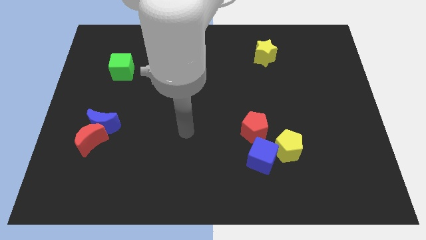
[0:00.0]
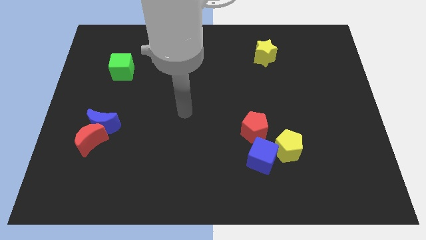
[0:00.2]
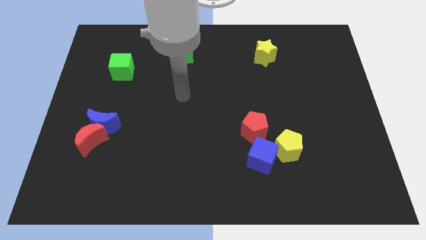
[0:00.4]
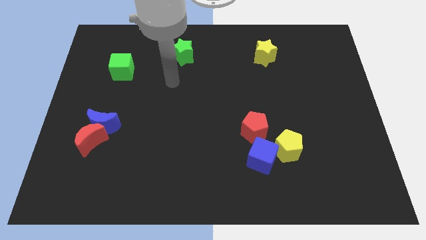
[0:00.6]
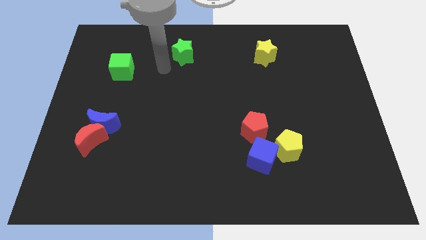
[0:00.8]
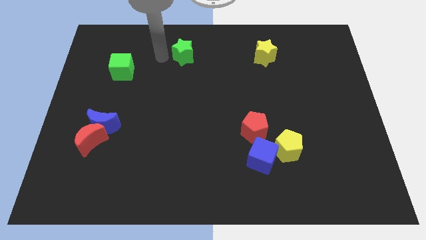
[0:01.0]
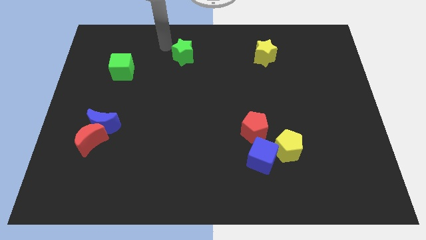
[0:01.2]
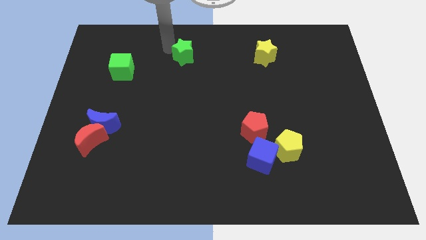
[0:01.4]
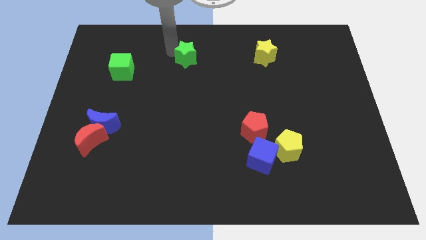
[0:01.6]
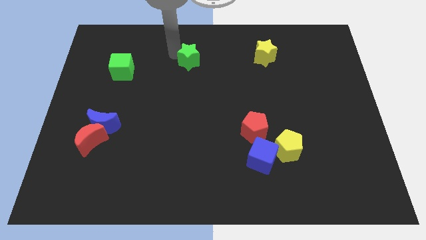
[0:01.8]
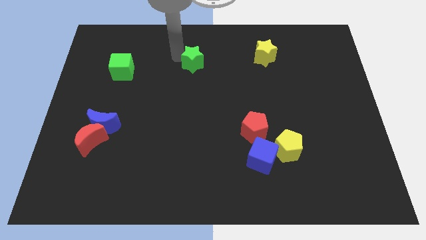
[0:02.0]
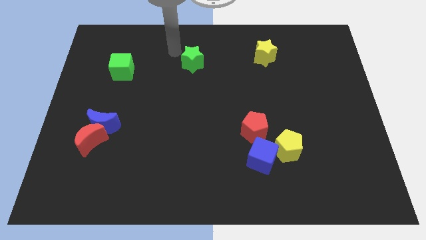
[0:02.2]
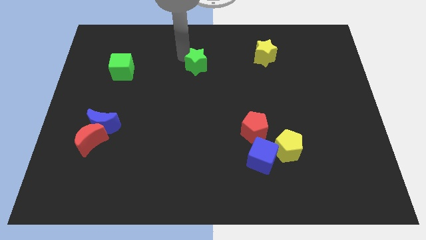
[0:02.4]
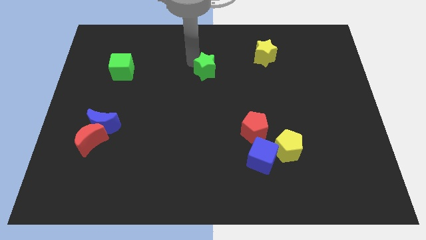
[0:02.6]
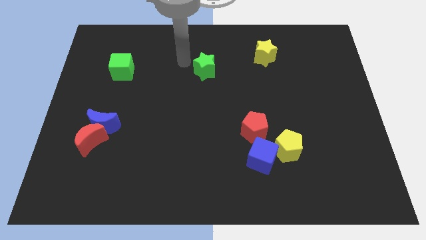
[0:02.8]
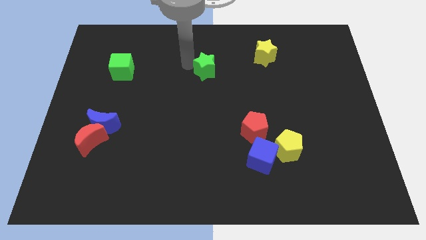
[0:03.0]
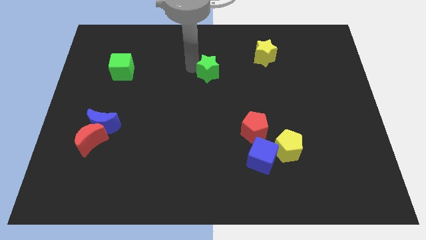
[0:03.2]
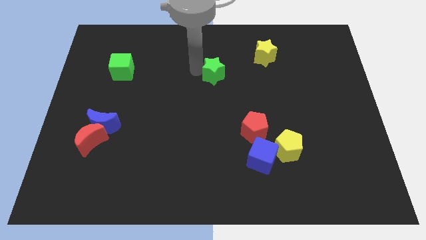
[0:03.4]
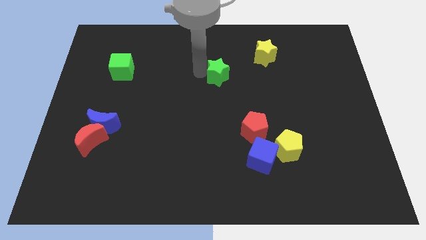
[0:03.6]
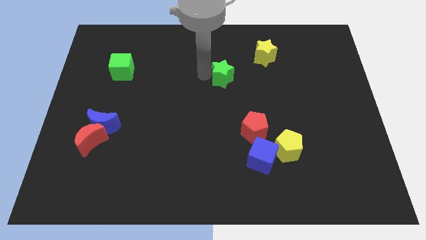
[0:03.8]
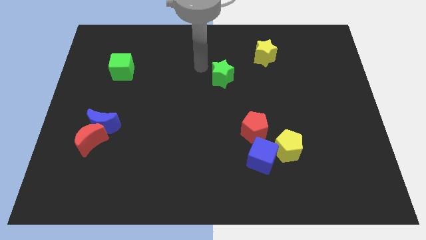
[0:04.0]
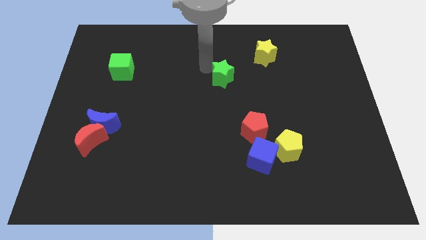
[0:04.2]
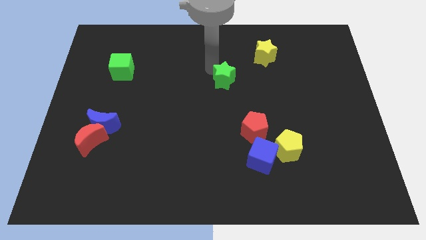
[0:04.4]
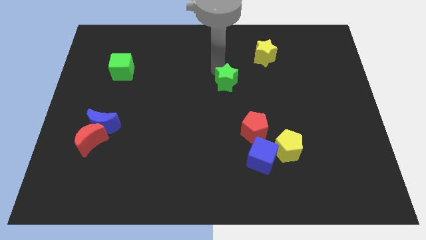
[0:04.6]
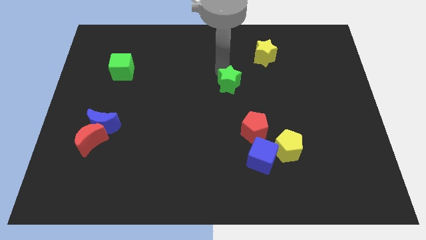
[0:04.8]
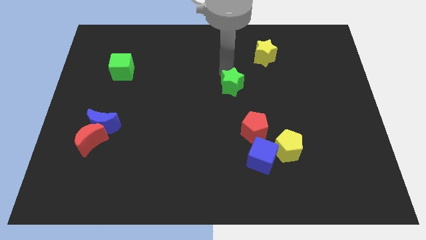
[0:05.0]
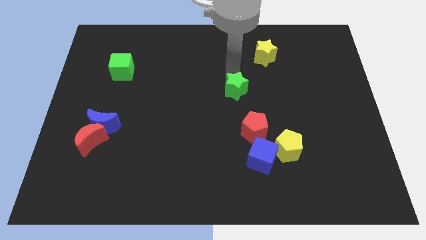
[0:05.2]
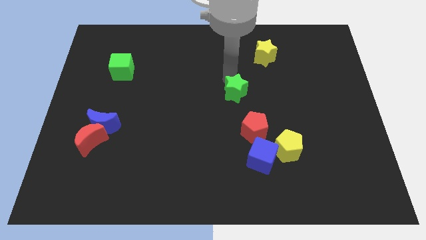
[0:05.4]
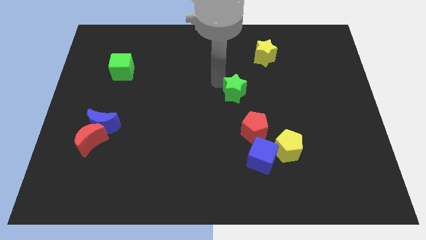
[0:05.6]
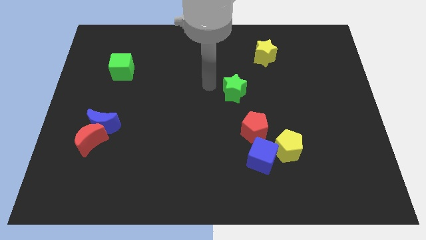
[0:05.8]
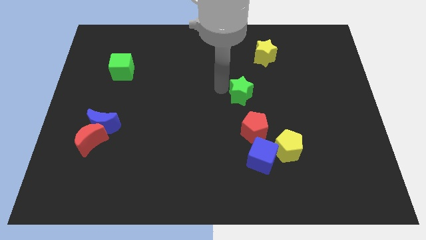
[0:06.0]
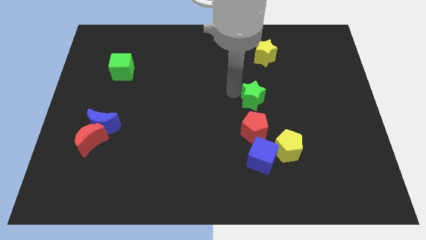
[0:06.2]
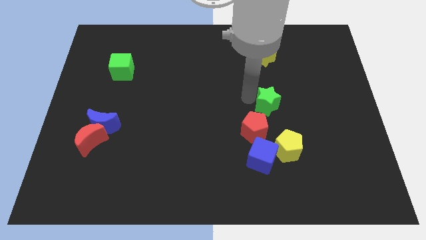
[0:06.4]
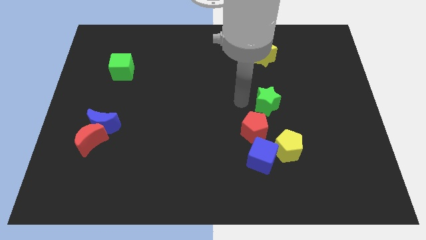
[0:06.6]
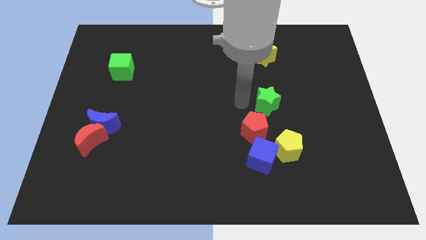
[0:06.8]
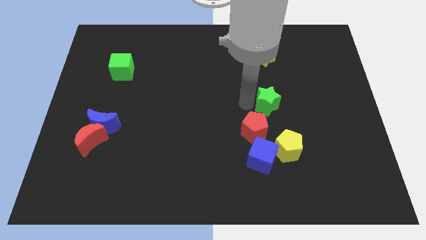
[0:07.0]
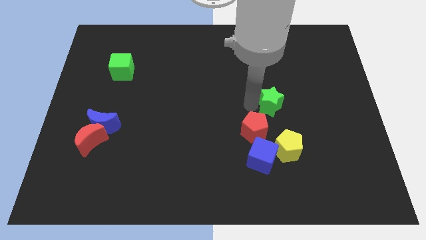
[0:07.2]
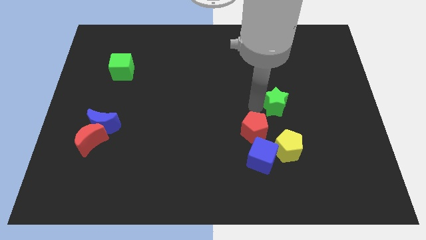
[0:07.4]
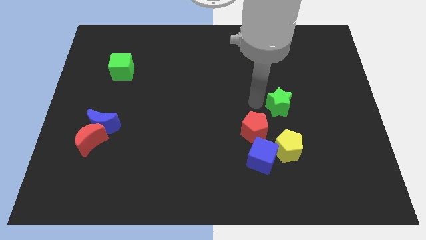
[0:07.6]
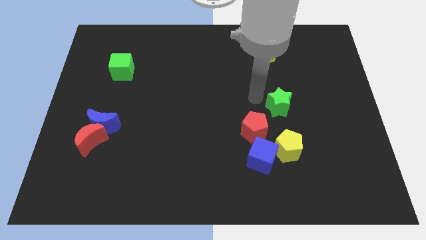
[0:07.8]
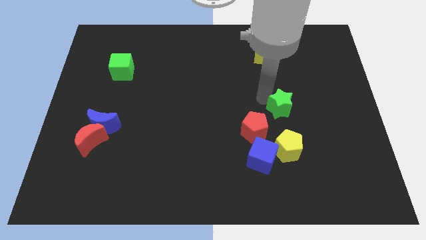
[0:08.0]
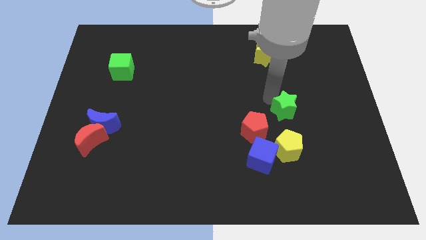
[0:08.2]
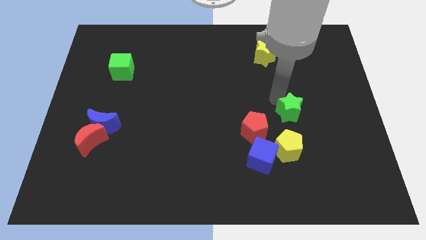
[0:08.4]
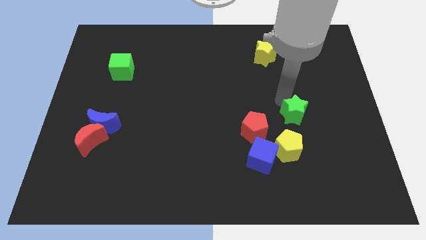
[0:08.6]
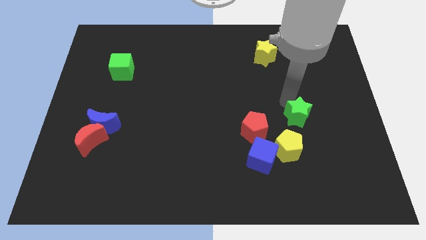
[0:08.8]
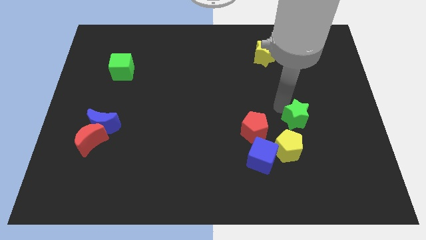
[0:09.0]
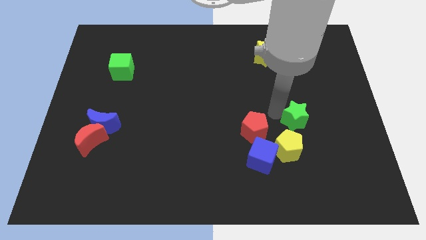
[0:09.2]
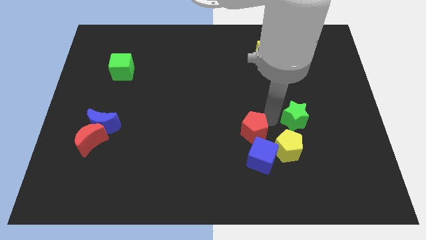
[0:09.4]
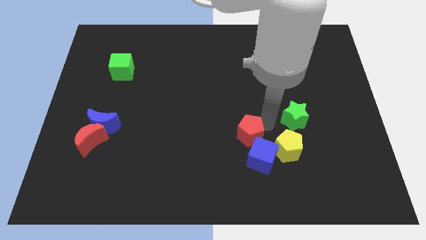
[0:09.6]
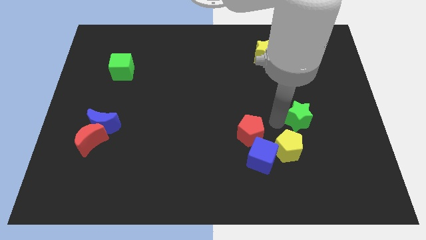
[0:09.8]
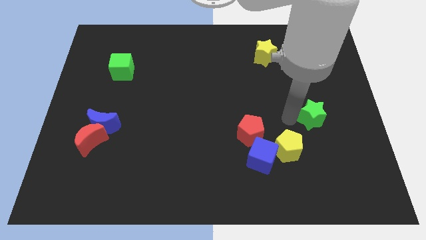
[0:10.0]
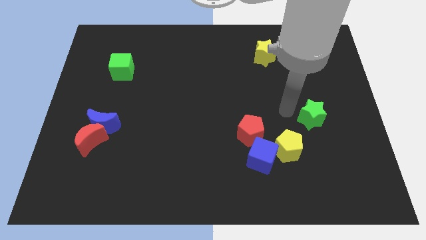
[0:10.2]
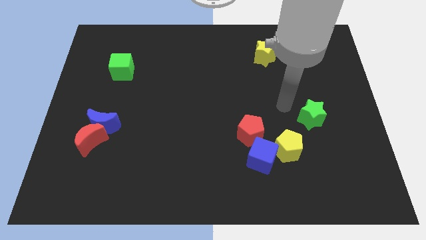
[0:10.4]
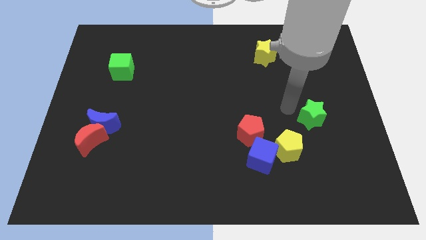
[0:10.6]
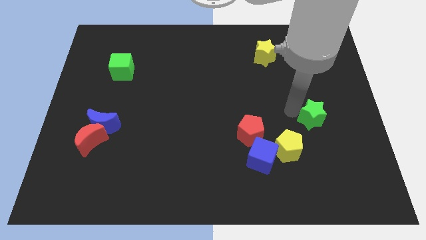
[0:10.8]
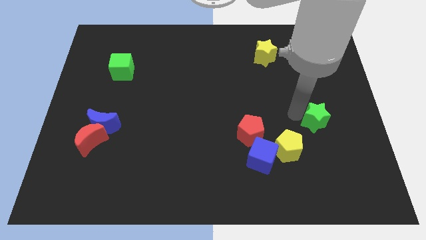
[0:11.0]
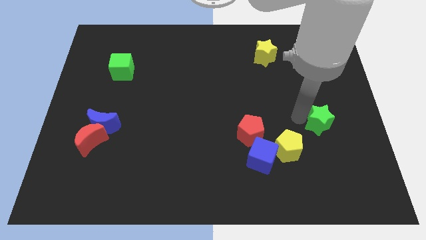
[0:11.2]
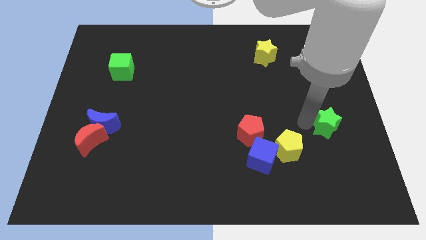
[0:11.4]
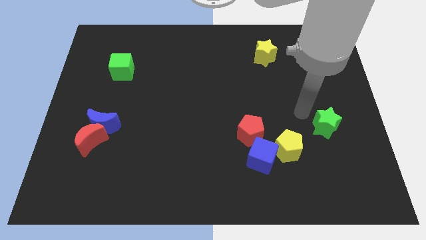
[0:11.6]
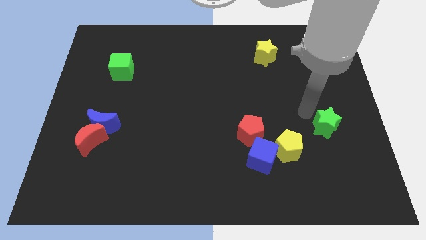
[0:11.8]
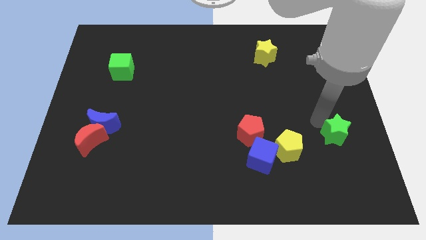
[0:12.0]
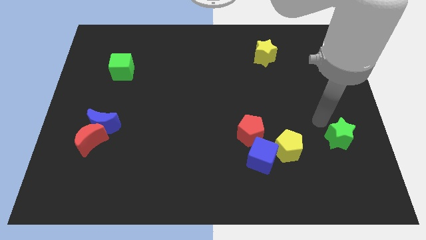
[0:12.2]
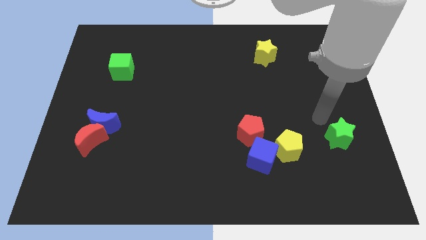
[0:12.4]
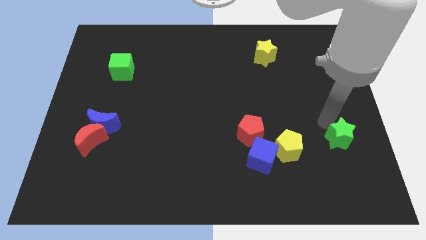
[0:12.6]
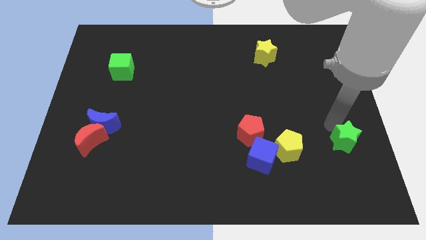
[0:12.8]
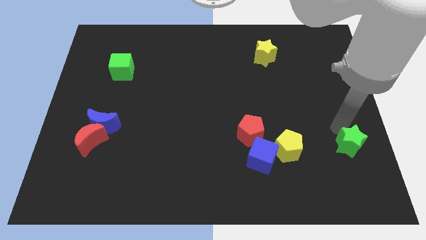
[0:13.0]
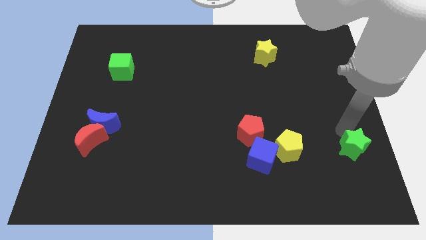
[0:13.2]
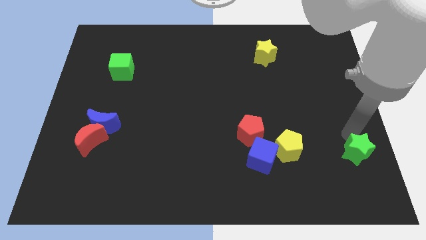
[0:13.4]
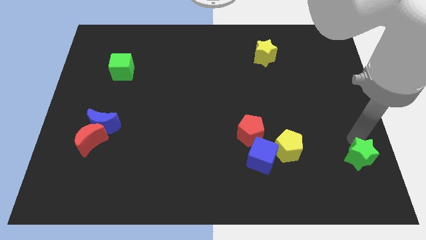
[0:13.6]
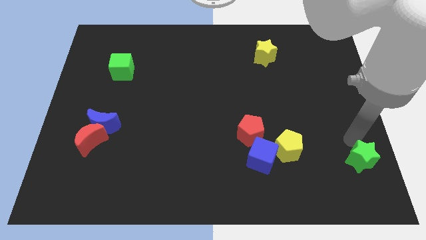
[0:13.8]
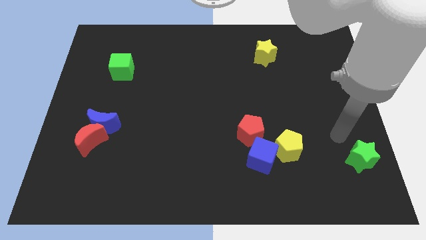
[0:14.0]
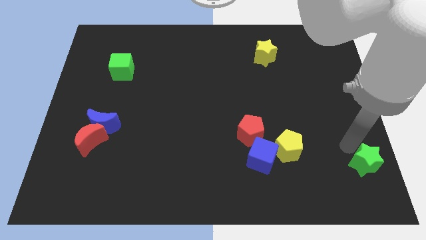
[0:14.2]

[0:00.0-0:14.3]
move the green star to the bottom right of the board
